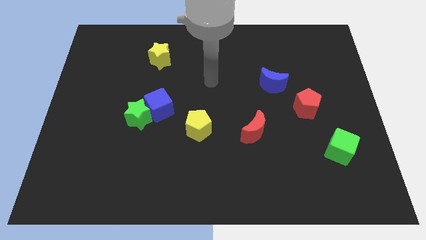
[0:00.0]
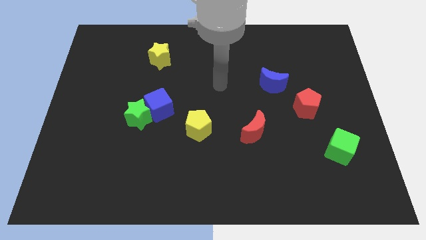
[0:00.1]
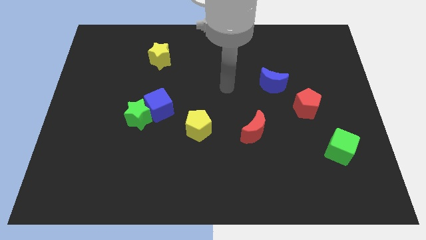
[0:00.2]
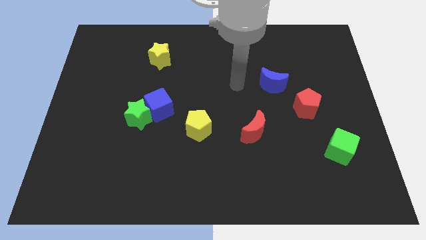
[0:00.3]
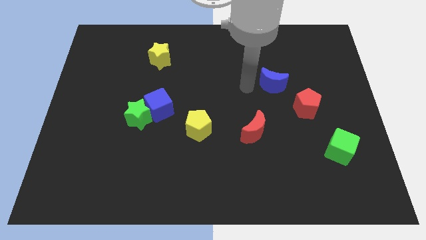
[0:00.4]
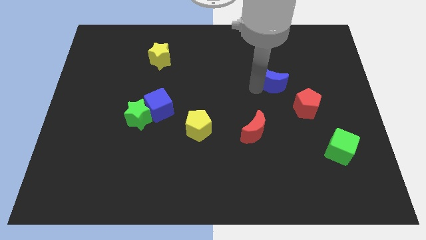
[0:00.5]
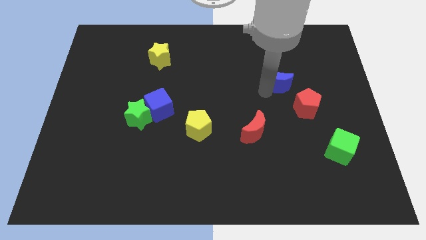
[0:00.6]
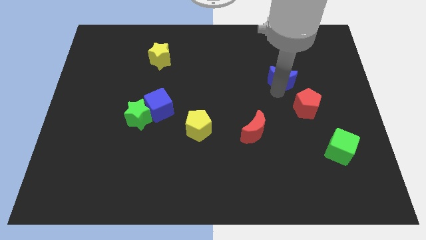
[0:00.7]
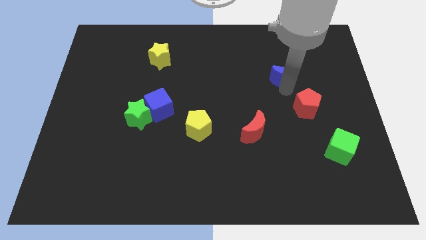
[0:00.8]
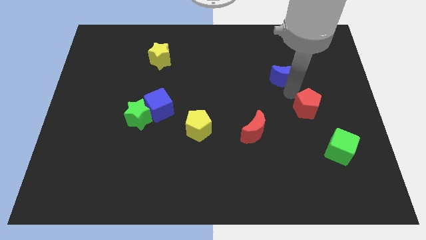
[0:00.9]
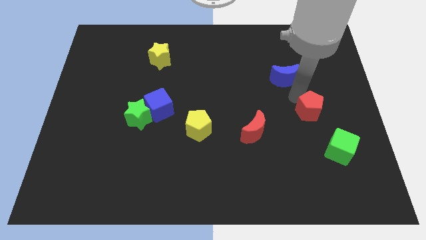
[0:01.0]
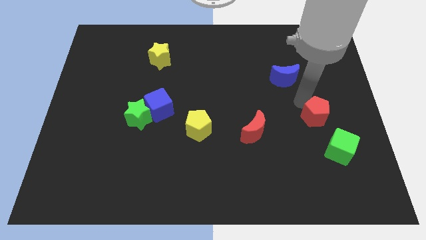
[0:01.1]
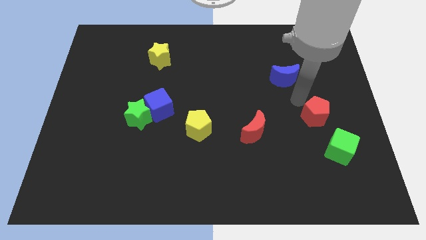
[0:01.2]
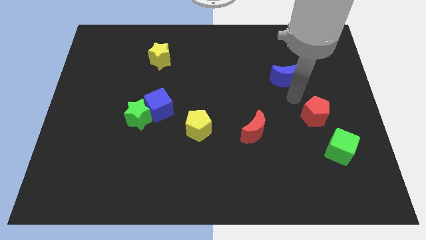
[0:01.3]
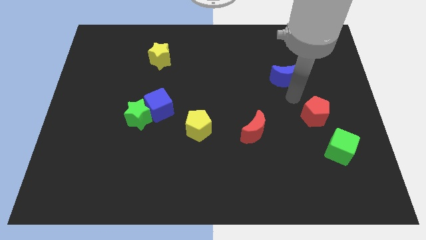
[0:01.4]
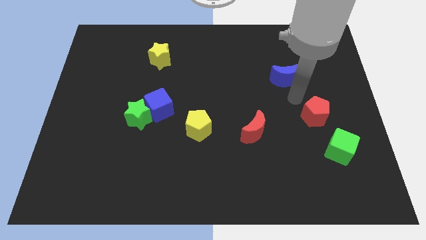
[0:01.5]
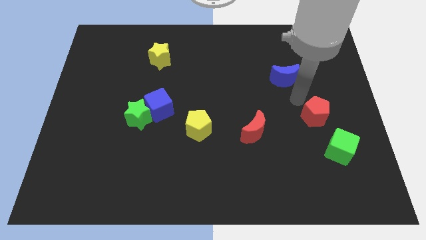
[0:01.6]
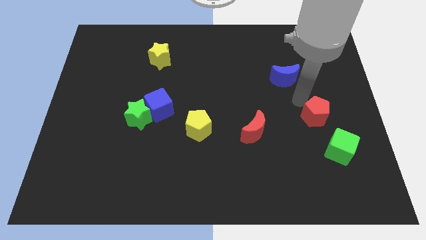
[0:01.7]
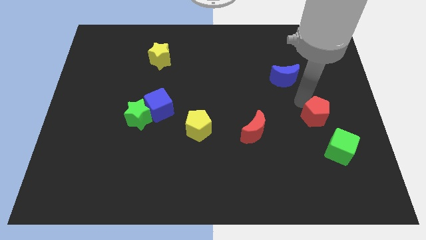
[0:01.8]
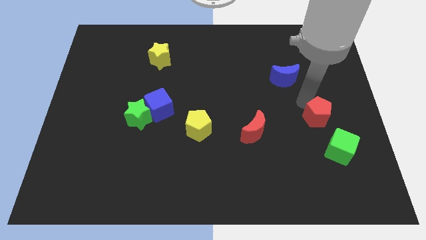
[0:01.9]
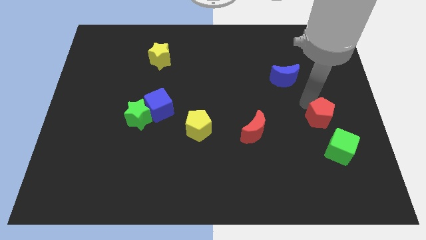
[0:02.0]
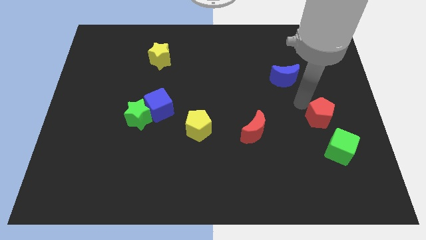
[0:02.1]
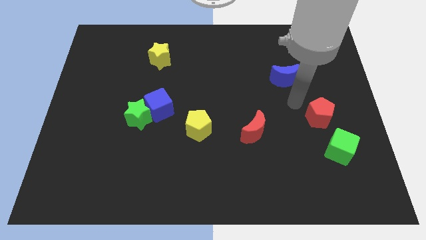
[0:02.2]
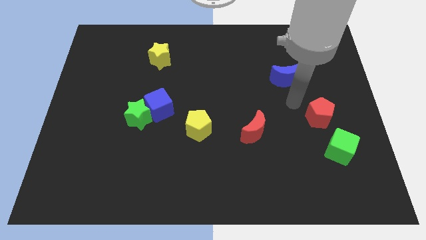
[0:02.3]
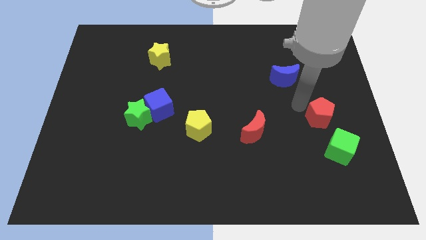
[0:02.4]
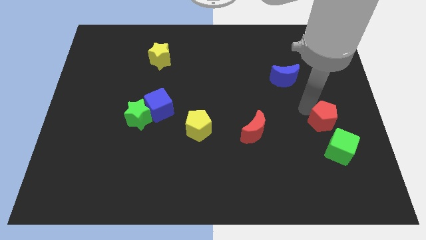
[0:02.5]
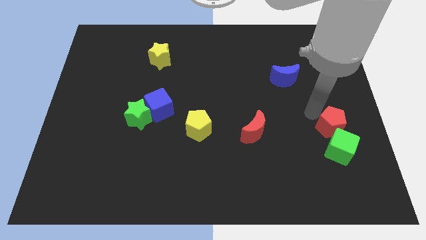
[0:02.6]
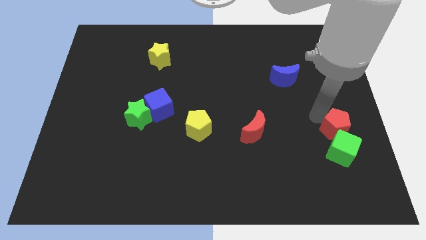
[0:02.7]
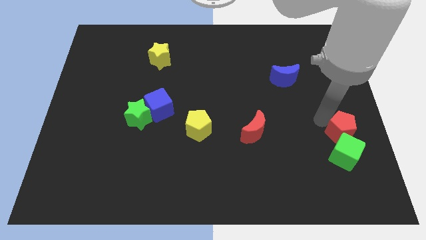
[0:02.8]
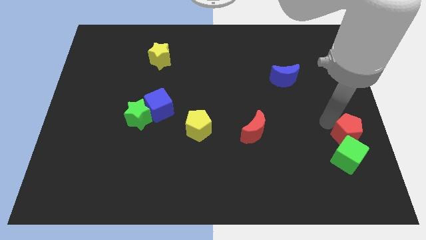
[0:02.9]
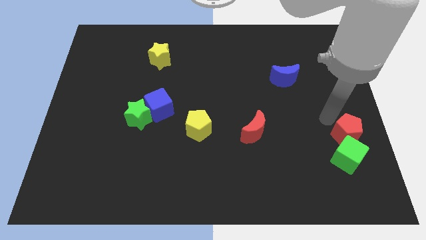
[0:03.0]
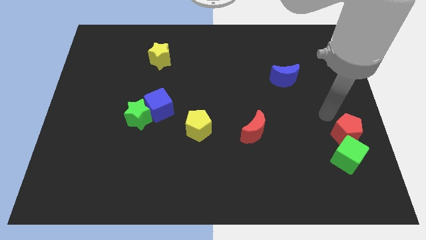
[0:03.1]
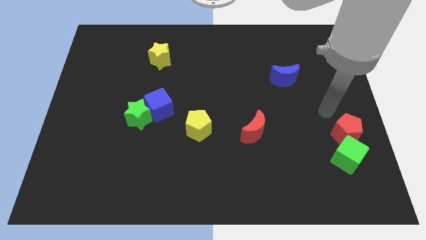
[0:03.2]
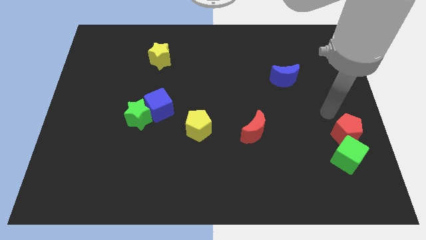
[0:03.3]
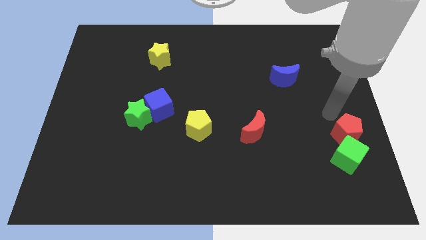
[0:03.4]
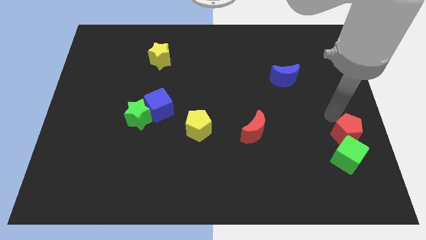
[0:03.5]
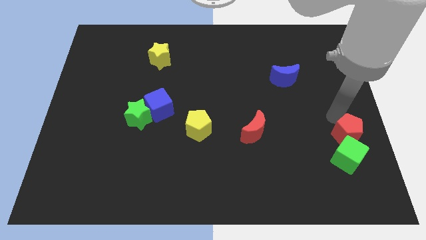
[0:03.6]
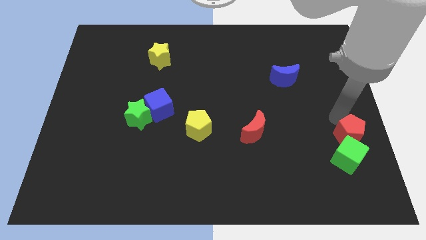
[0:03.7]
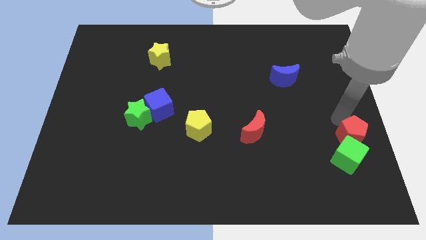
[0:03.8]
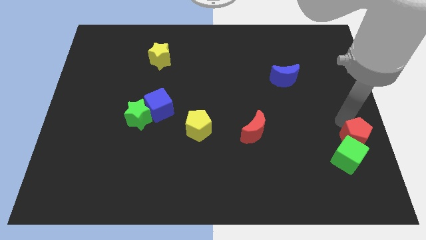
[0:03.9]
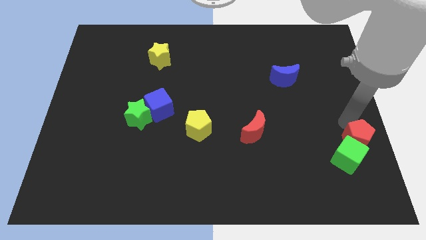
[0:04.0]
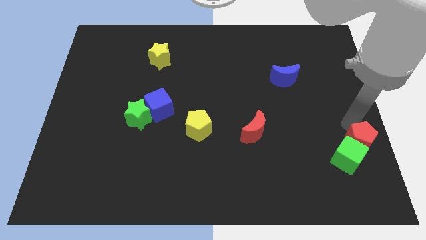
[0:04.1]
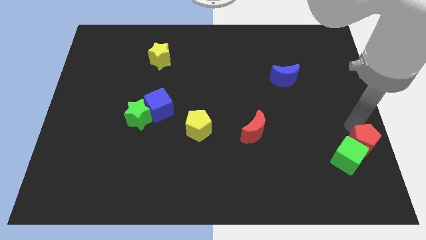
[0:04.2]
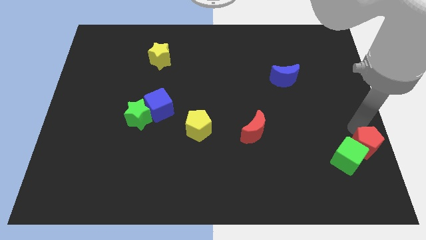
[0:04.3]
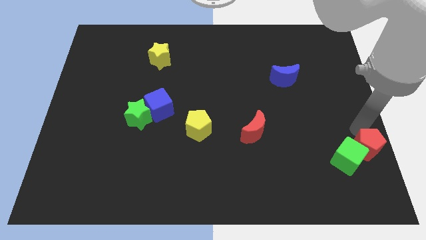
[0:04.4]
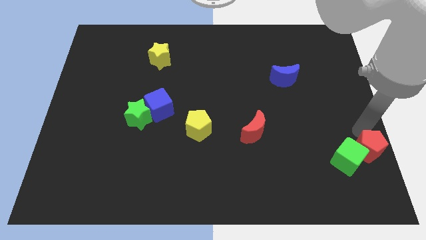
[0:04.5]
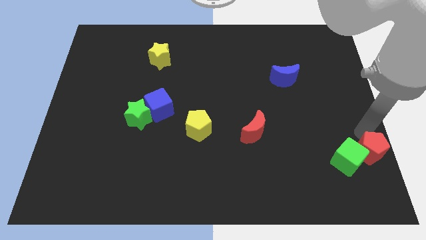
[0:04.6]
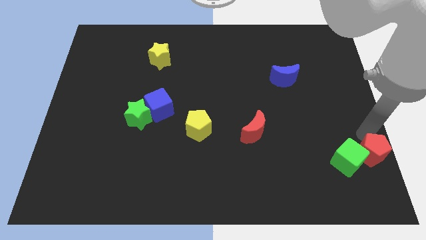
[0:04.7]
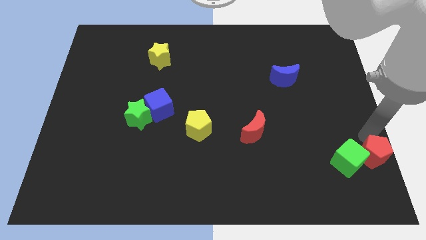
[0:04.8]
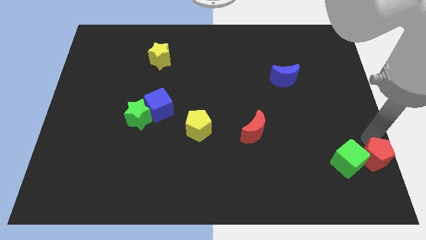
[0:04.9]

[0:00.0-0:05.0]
put the red pentagon to the bottom right

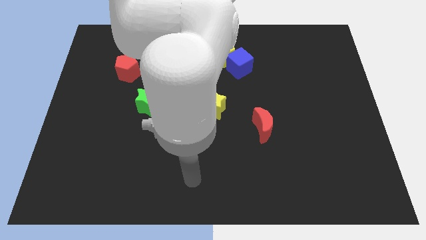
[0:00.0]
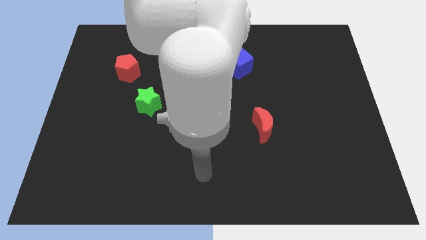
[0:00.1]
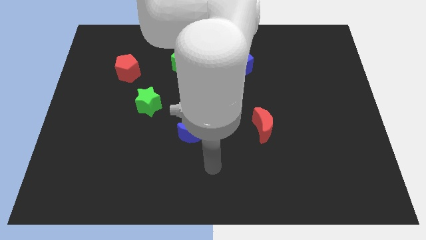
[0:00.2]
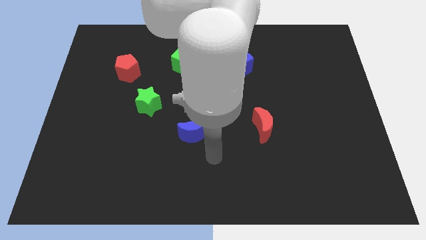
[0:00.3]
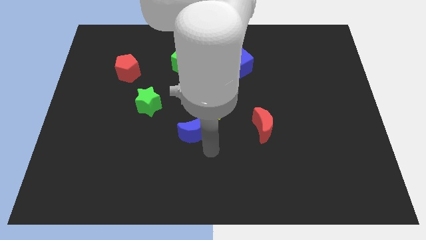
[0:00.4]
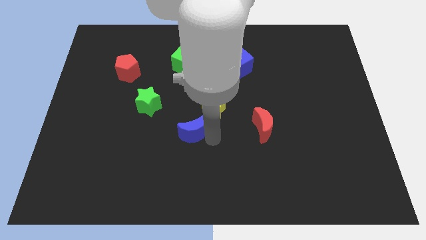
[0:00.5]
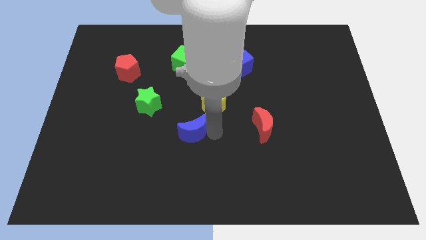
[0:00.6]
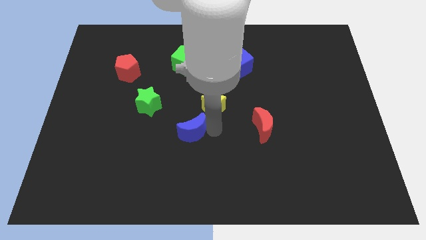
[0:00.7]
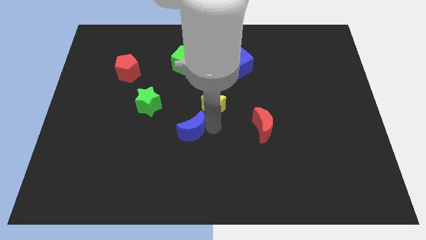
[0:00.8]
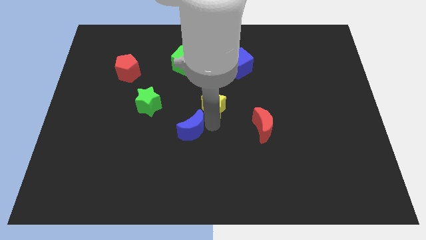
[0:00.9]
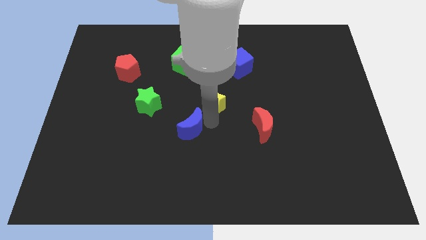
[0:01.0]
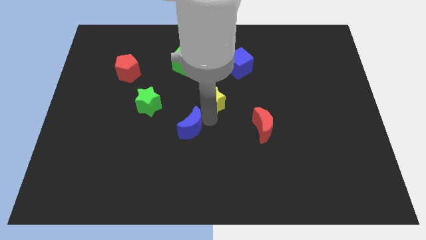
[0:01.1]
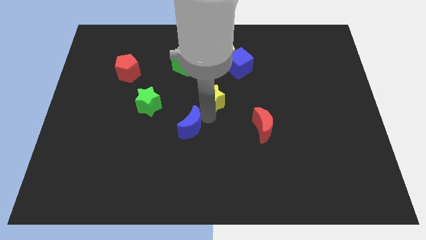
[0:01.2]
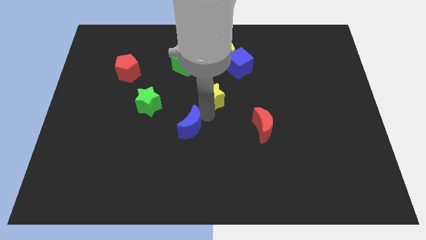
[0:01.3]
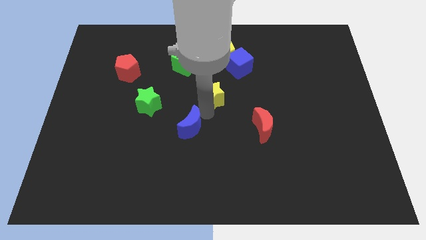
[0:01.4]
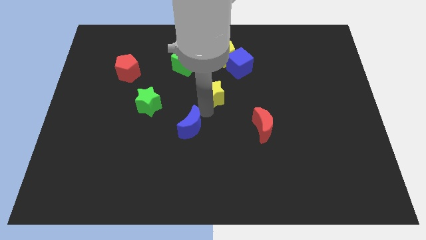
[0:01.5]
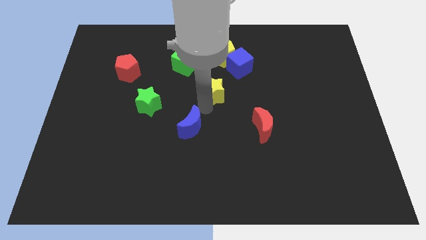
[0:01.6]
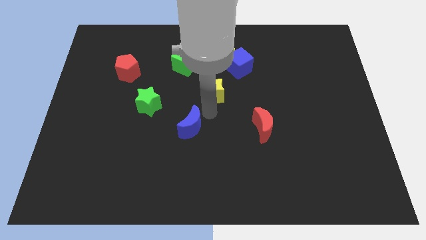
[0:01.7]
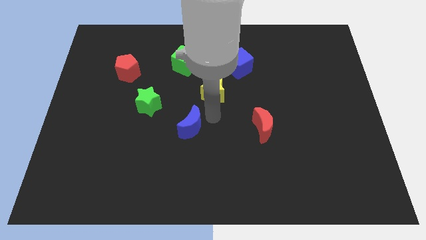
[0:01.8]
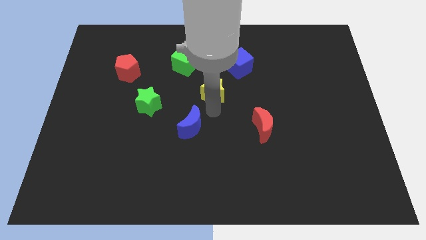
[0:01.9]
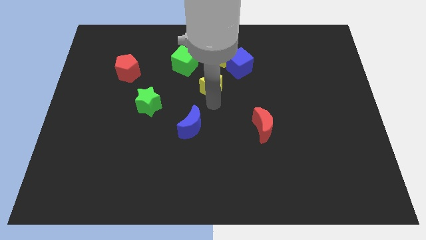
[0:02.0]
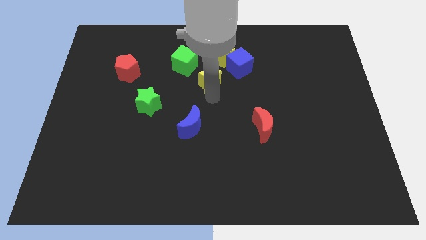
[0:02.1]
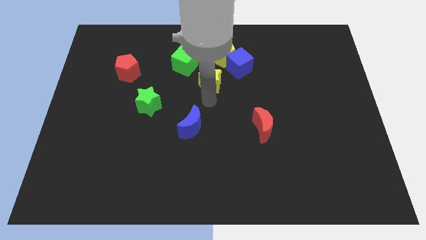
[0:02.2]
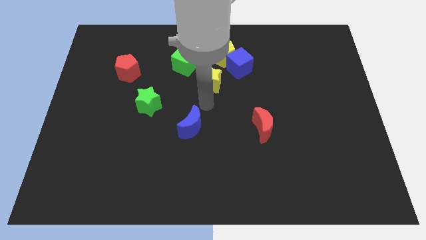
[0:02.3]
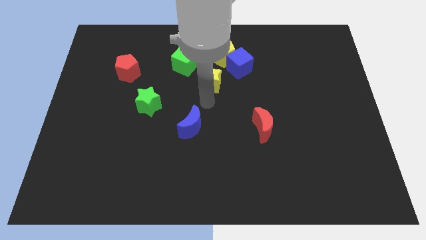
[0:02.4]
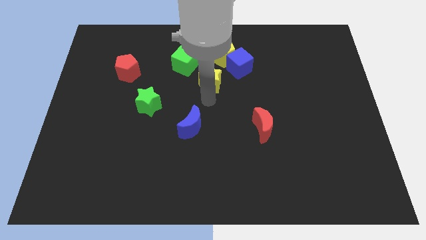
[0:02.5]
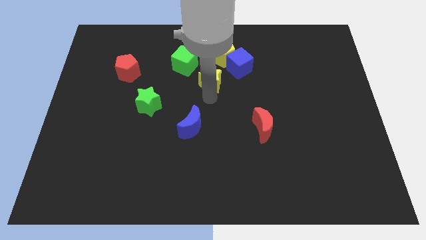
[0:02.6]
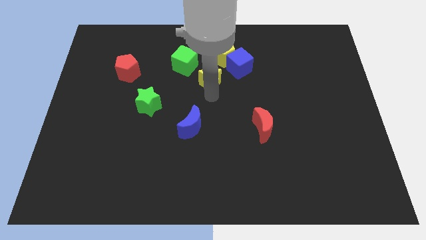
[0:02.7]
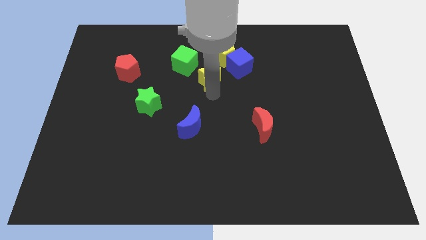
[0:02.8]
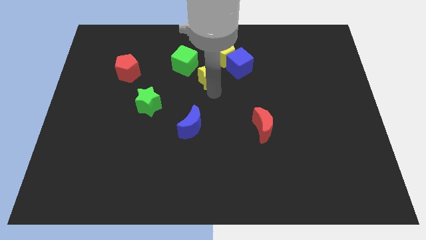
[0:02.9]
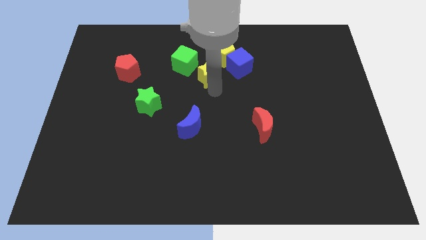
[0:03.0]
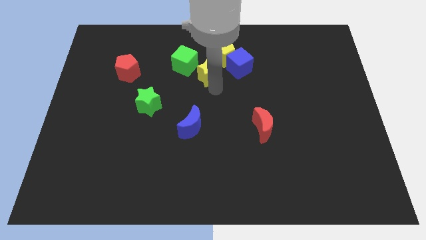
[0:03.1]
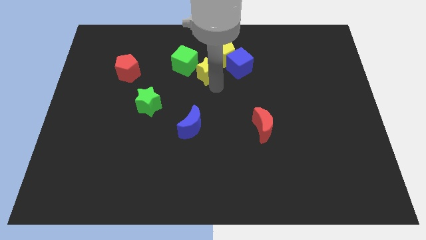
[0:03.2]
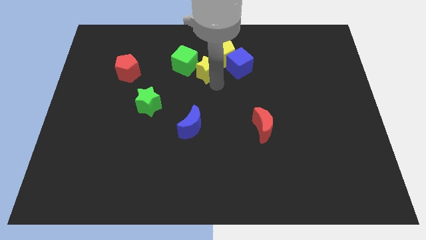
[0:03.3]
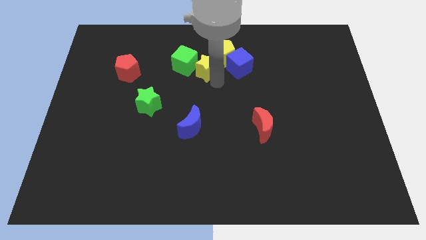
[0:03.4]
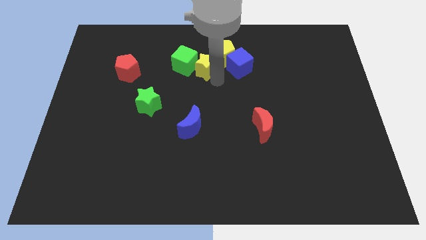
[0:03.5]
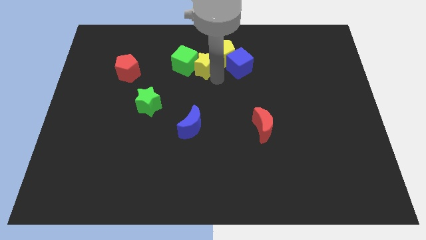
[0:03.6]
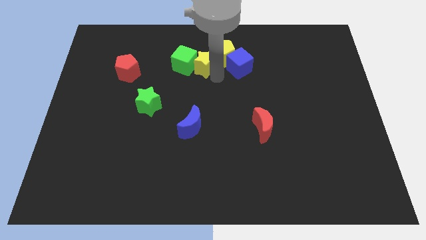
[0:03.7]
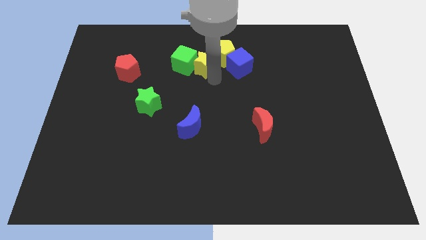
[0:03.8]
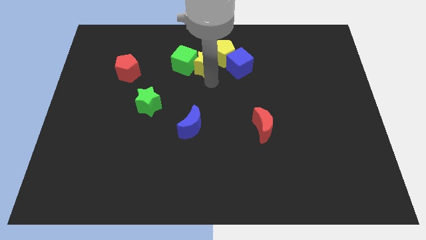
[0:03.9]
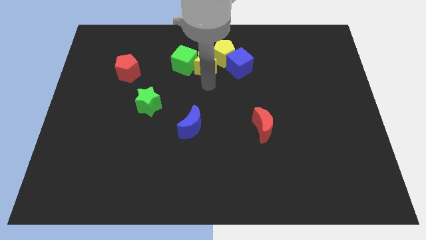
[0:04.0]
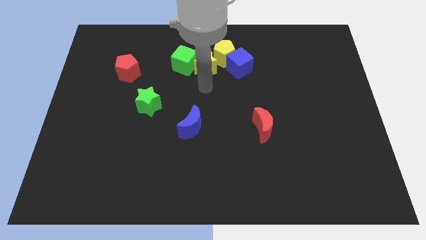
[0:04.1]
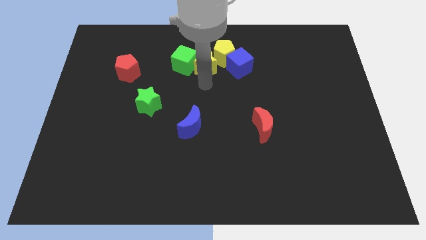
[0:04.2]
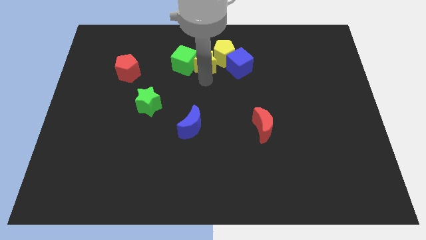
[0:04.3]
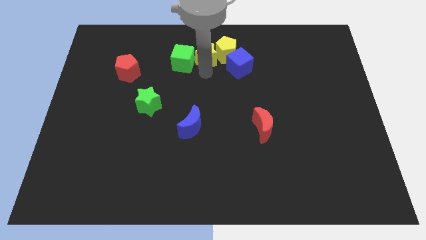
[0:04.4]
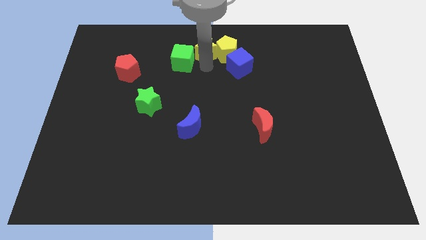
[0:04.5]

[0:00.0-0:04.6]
put the yellow star to the top side
